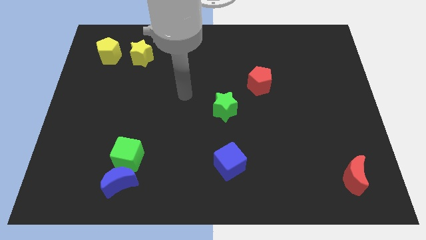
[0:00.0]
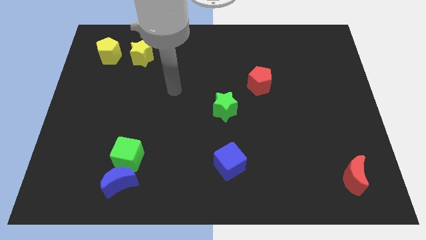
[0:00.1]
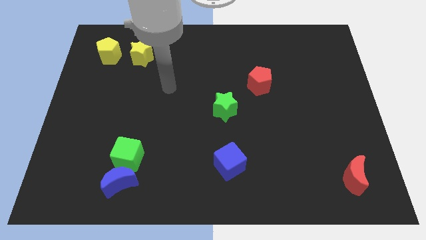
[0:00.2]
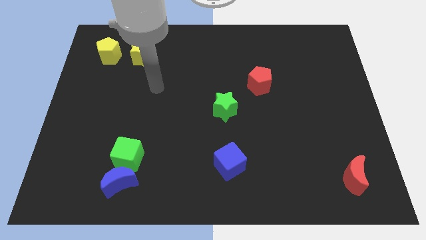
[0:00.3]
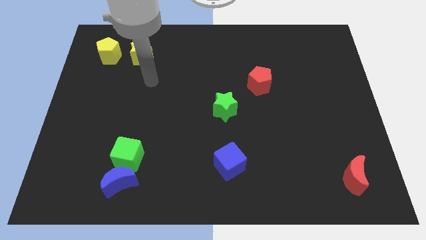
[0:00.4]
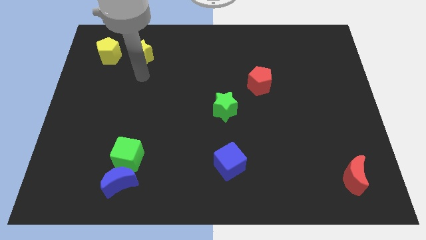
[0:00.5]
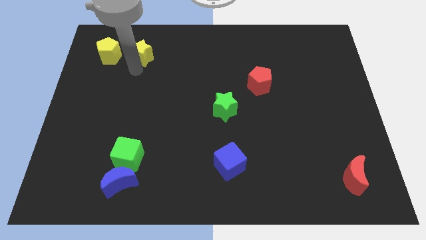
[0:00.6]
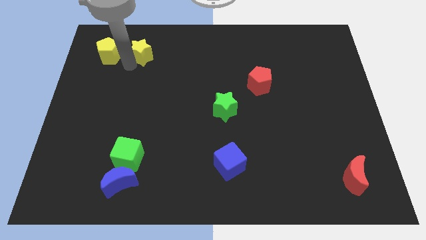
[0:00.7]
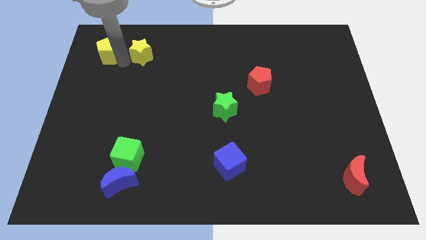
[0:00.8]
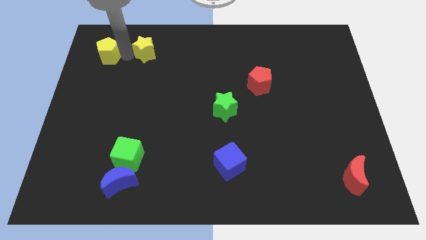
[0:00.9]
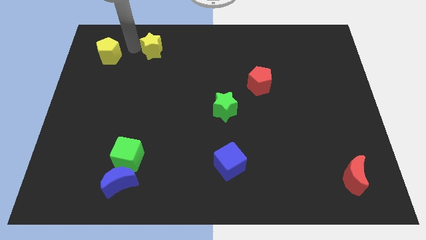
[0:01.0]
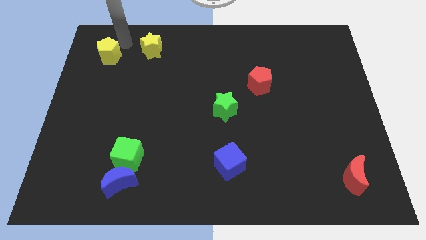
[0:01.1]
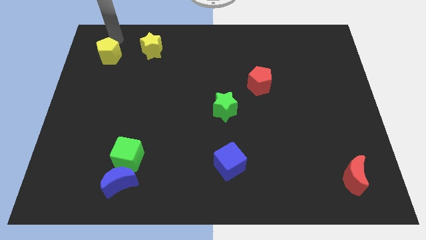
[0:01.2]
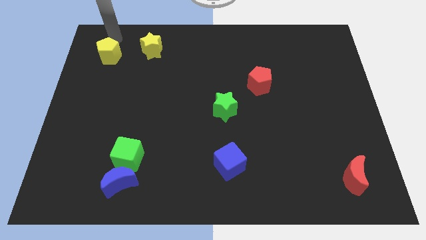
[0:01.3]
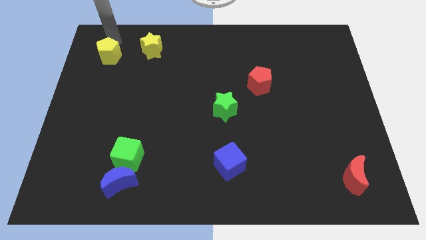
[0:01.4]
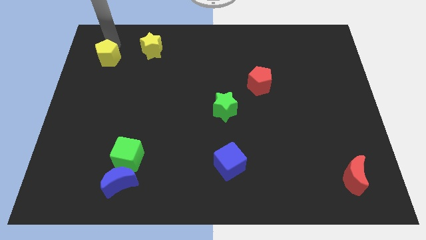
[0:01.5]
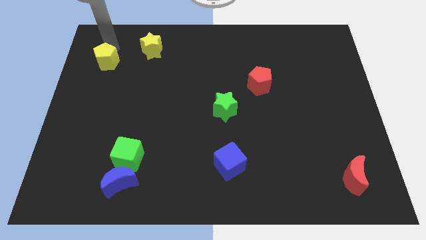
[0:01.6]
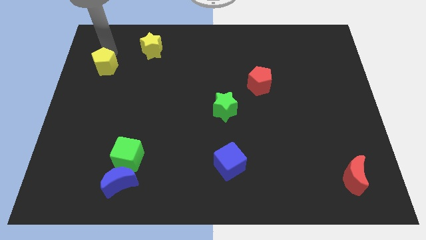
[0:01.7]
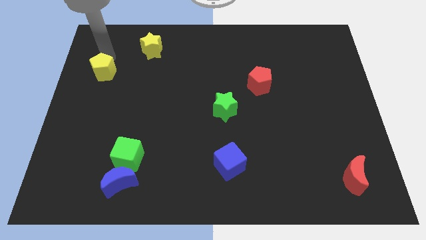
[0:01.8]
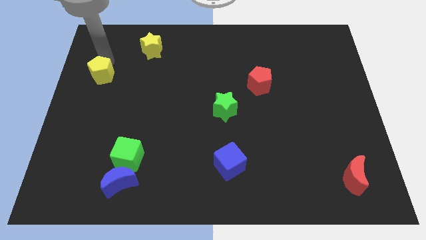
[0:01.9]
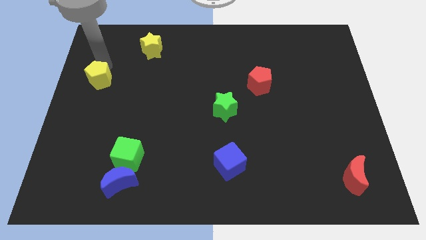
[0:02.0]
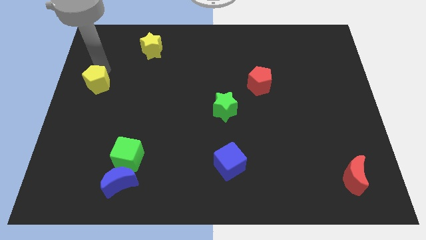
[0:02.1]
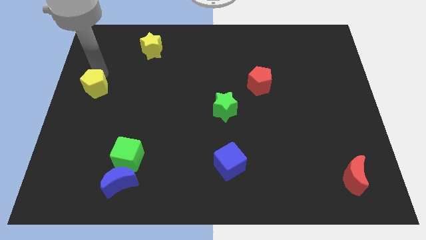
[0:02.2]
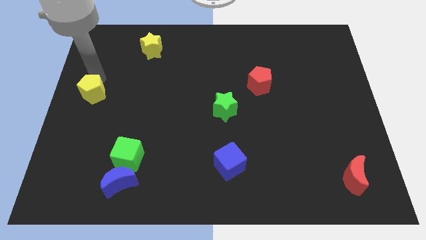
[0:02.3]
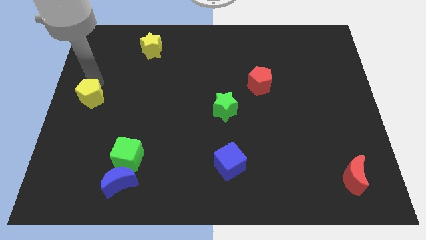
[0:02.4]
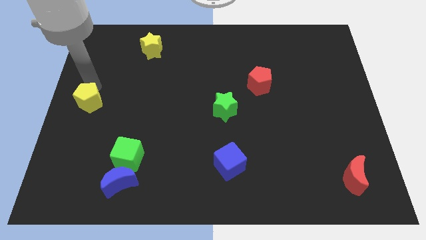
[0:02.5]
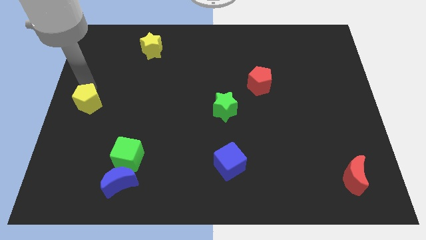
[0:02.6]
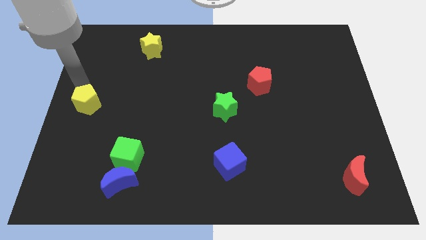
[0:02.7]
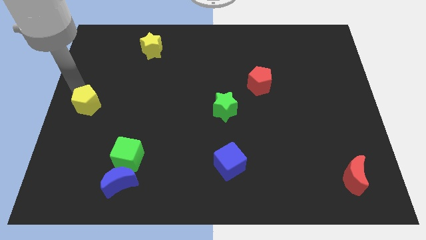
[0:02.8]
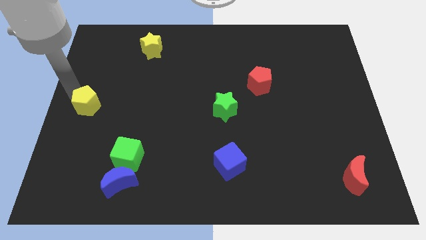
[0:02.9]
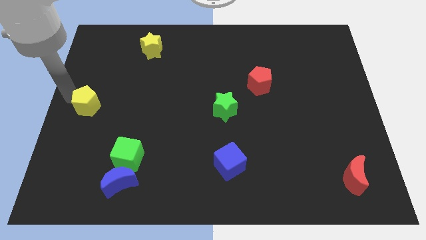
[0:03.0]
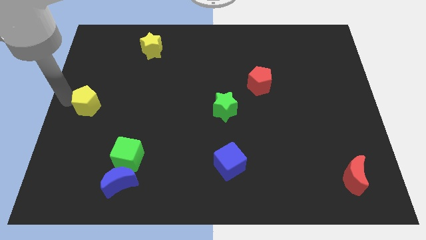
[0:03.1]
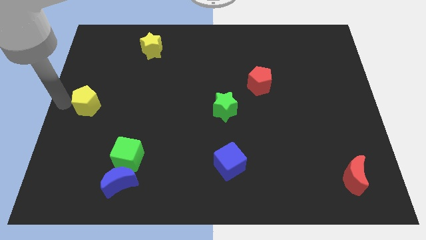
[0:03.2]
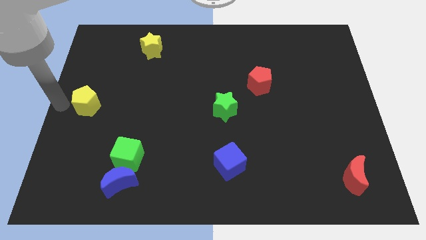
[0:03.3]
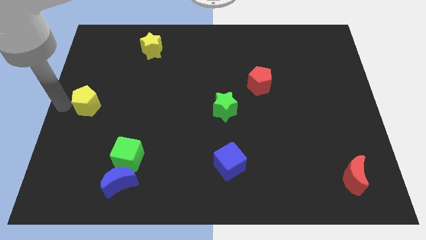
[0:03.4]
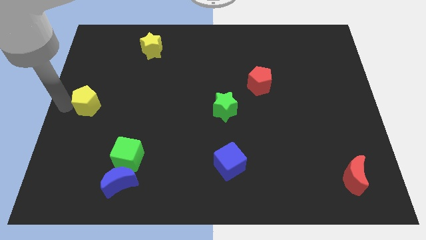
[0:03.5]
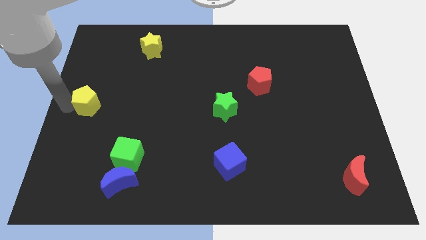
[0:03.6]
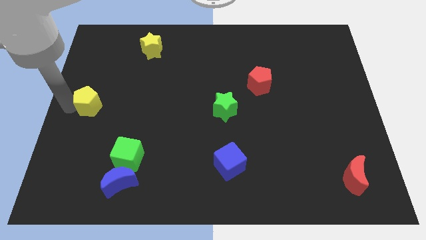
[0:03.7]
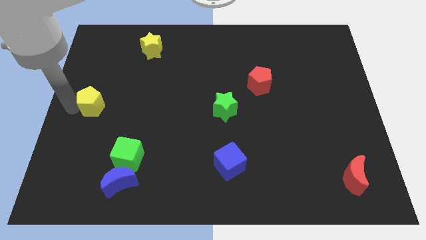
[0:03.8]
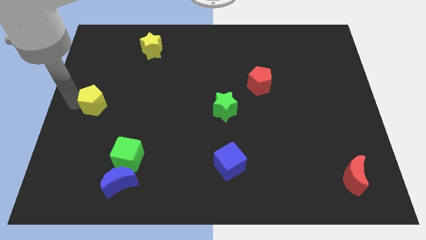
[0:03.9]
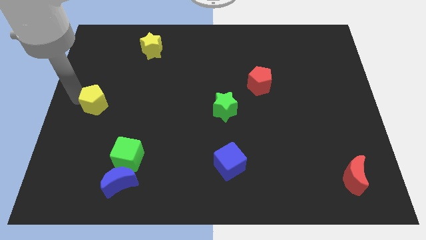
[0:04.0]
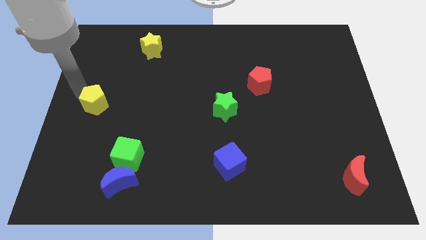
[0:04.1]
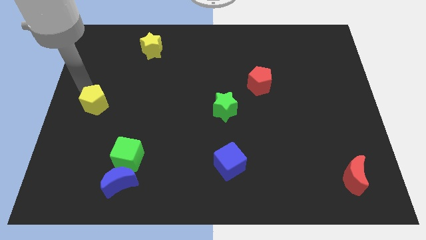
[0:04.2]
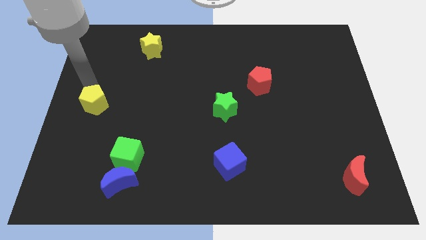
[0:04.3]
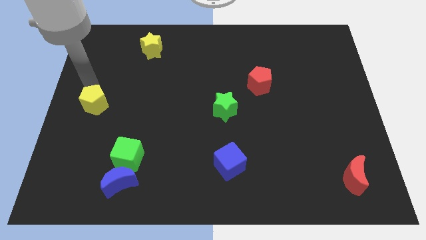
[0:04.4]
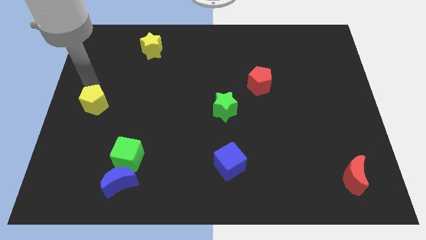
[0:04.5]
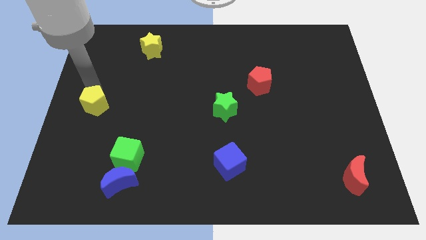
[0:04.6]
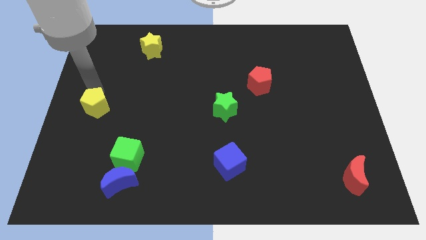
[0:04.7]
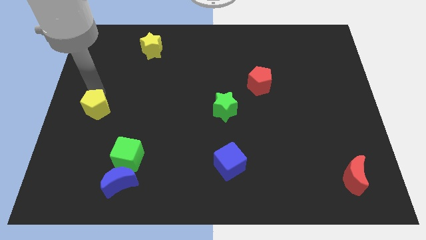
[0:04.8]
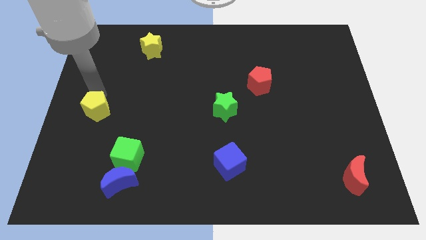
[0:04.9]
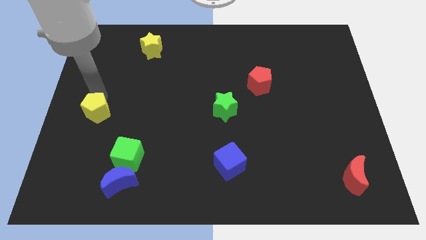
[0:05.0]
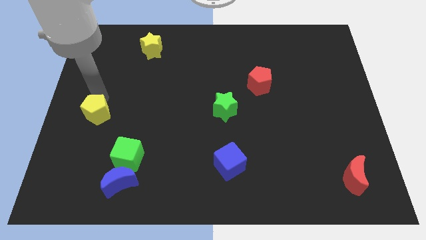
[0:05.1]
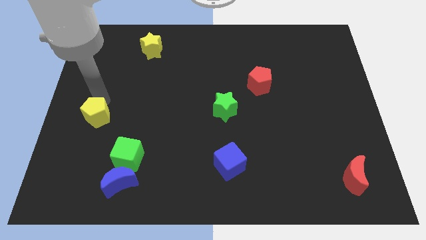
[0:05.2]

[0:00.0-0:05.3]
push the yellow pentagon down

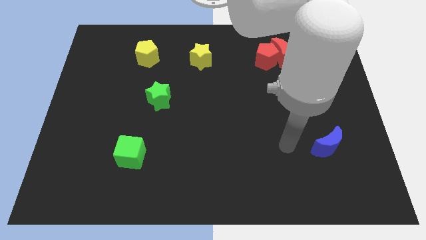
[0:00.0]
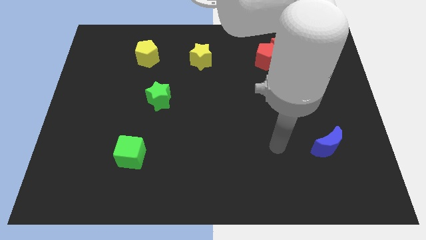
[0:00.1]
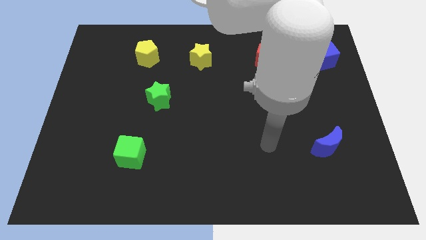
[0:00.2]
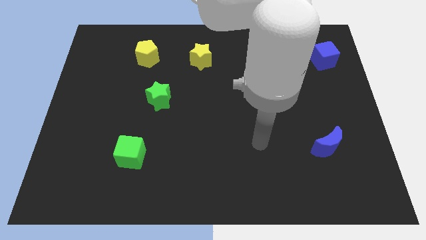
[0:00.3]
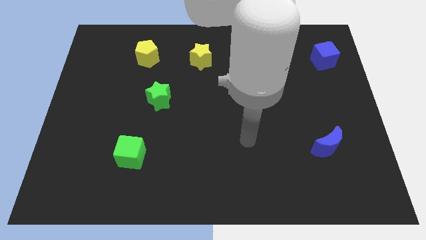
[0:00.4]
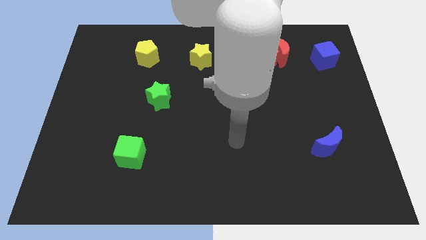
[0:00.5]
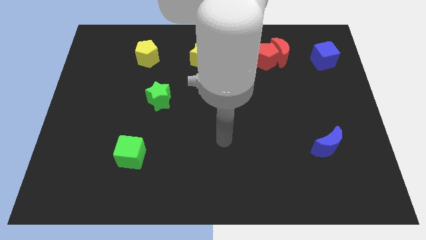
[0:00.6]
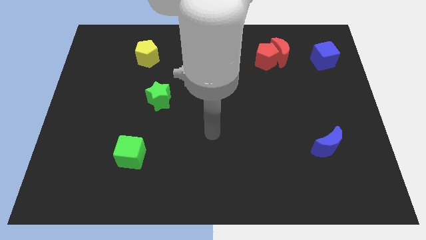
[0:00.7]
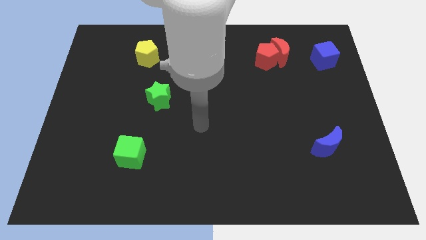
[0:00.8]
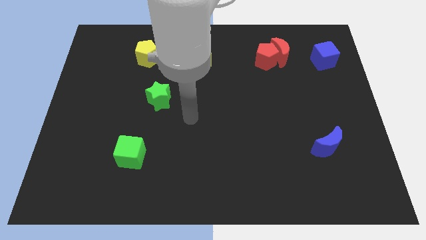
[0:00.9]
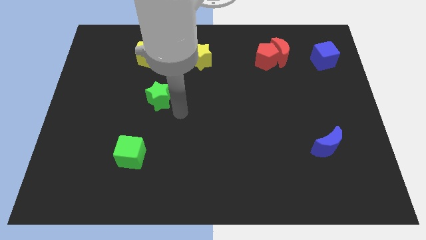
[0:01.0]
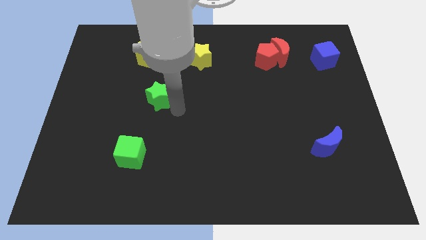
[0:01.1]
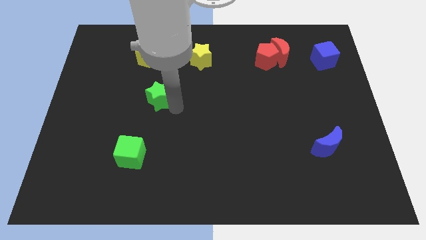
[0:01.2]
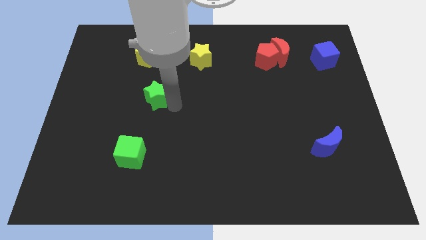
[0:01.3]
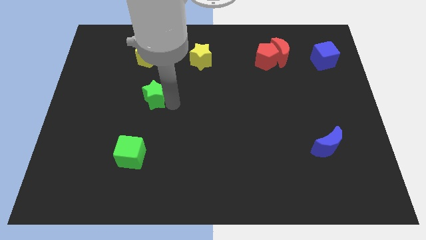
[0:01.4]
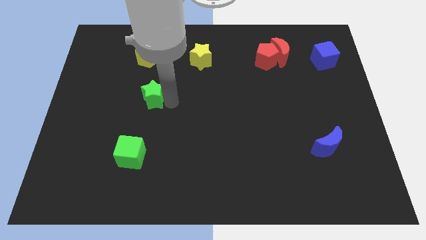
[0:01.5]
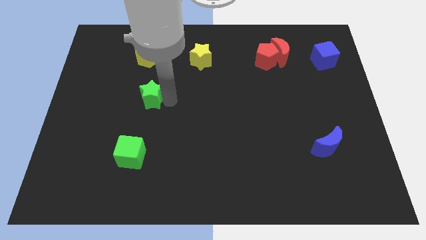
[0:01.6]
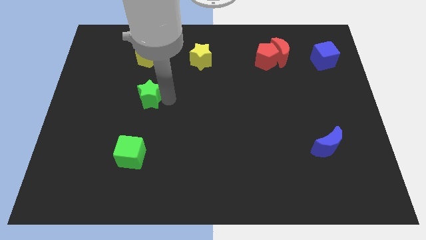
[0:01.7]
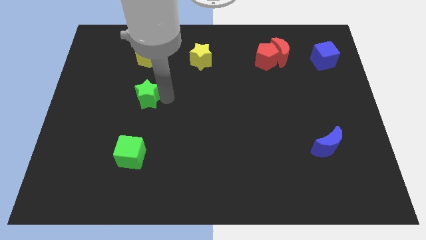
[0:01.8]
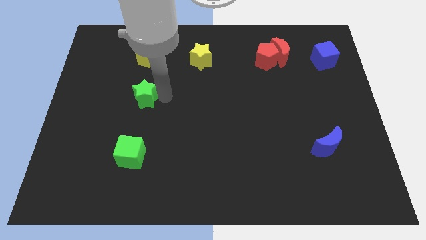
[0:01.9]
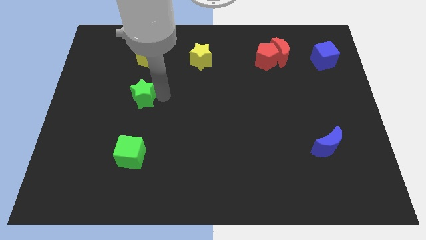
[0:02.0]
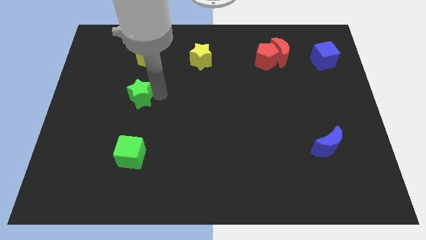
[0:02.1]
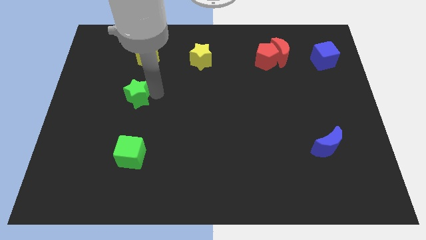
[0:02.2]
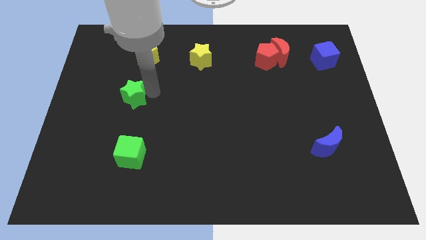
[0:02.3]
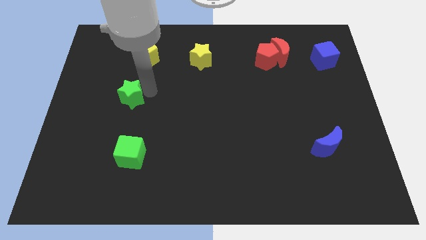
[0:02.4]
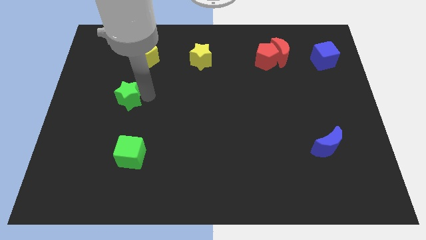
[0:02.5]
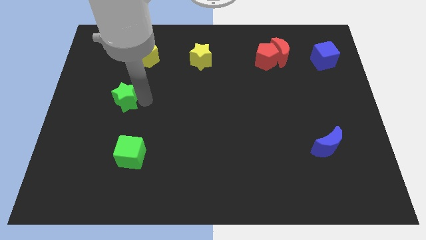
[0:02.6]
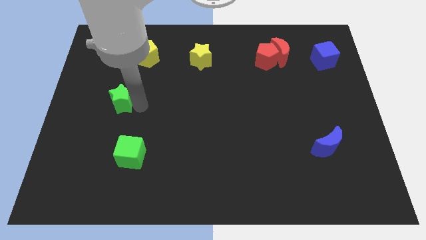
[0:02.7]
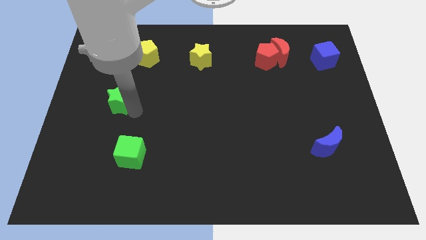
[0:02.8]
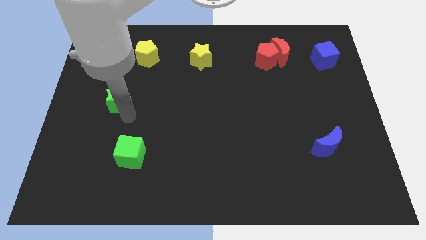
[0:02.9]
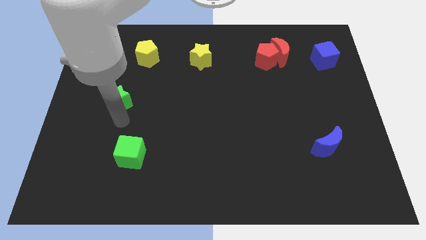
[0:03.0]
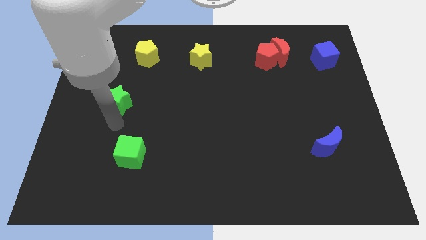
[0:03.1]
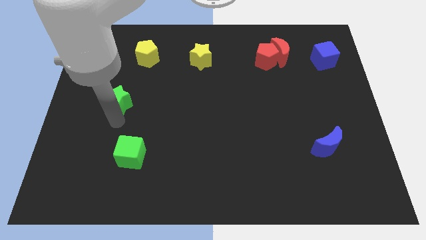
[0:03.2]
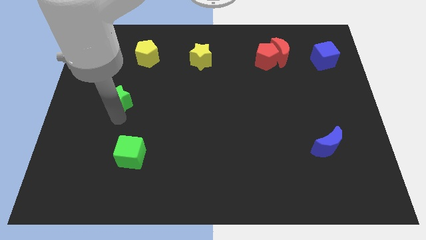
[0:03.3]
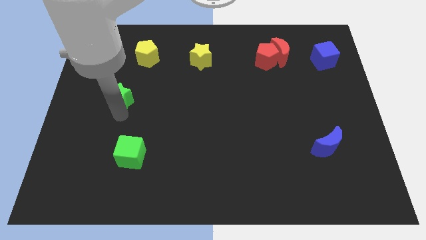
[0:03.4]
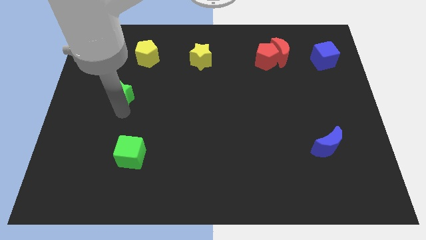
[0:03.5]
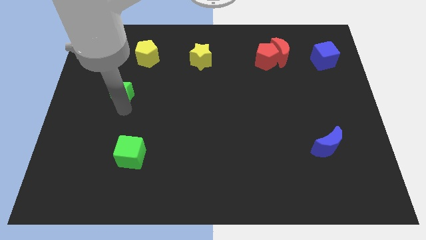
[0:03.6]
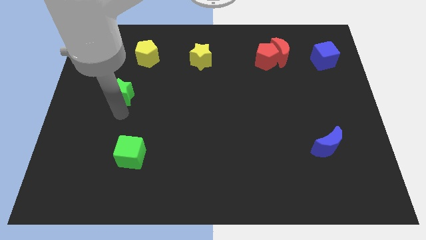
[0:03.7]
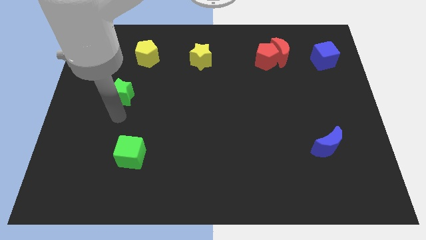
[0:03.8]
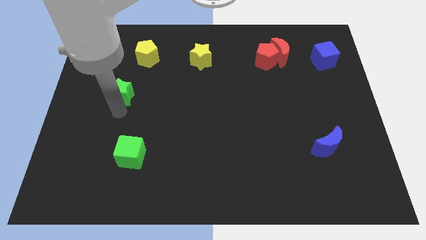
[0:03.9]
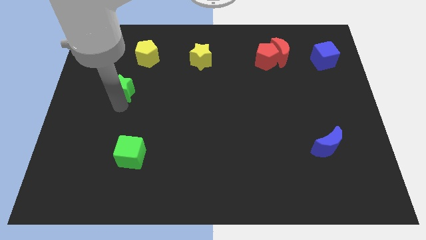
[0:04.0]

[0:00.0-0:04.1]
slightly slide the green star upwards and then left
